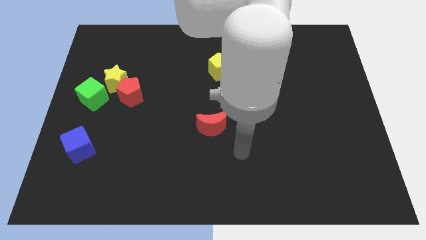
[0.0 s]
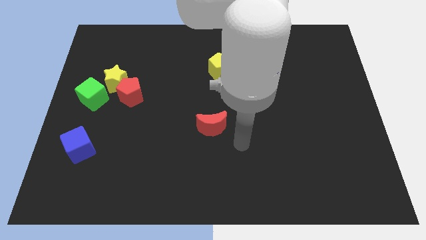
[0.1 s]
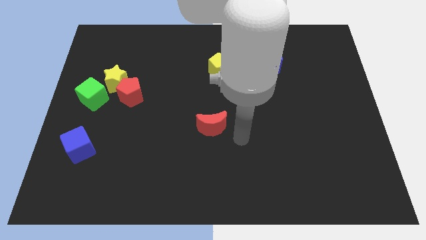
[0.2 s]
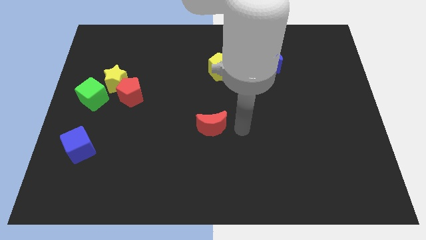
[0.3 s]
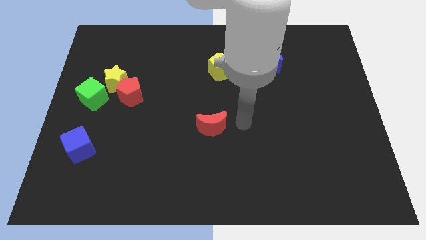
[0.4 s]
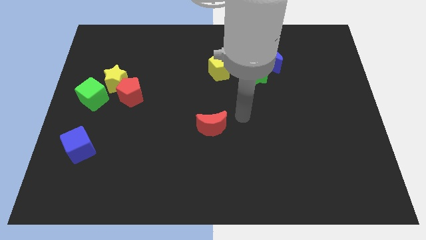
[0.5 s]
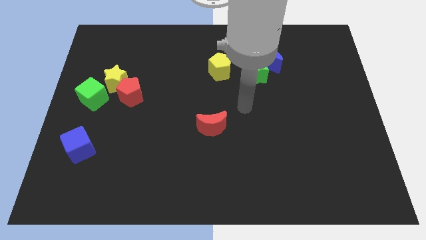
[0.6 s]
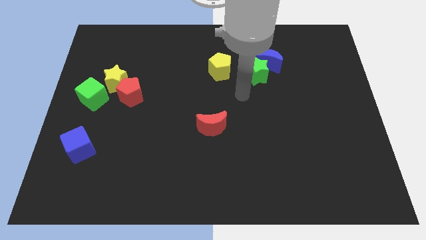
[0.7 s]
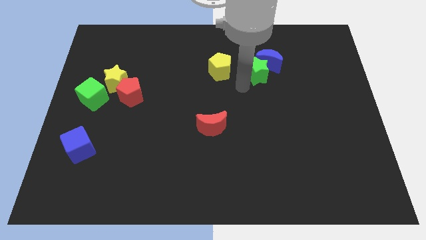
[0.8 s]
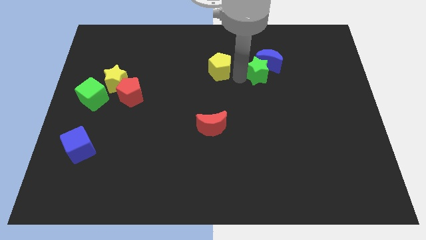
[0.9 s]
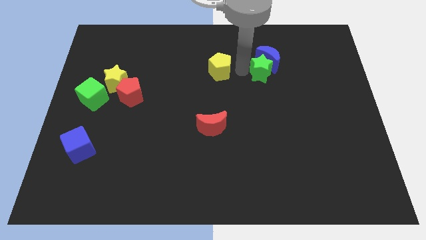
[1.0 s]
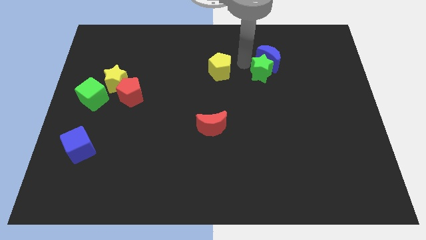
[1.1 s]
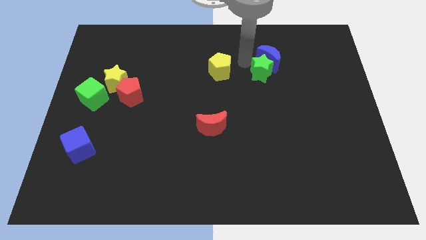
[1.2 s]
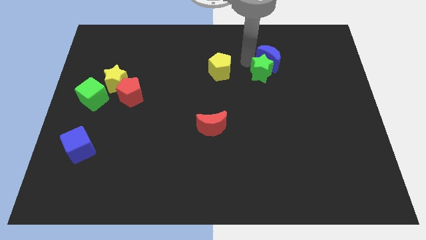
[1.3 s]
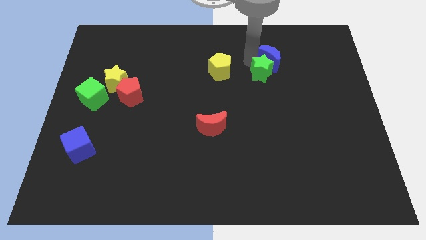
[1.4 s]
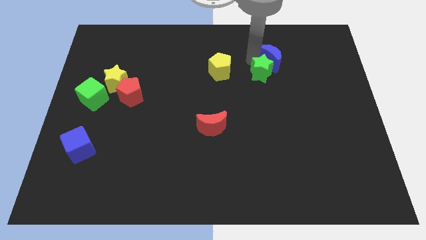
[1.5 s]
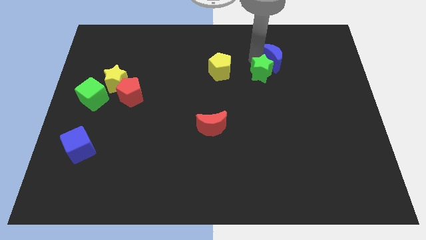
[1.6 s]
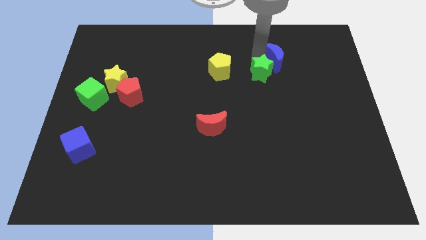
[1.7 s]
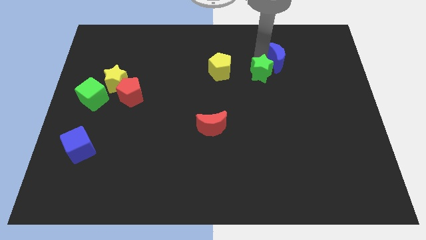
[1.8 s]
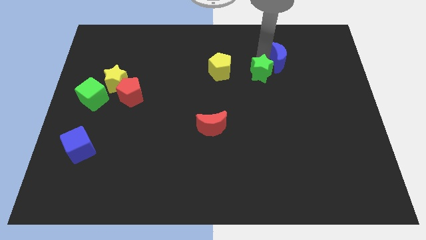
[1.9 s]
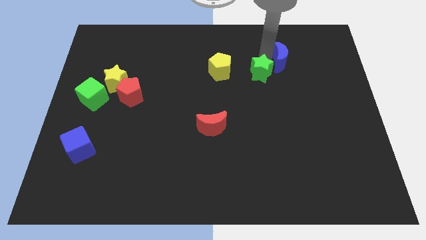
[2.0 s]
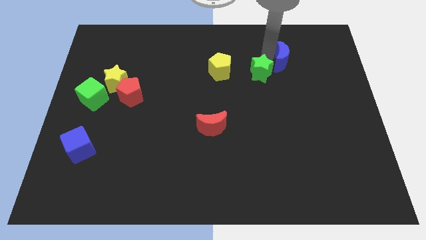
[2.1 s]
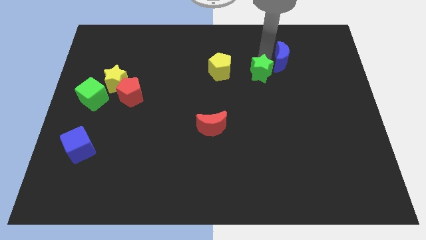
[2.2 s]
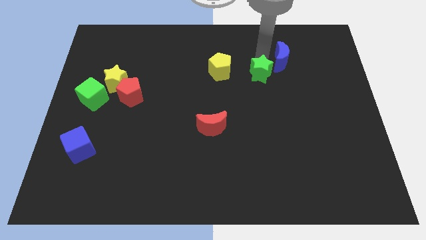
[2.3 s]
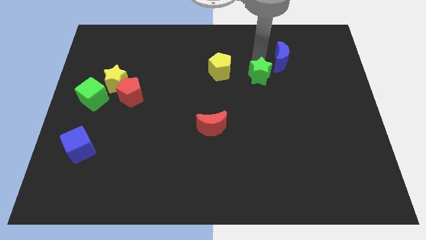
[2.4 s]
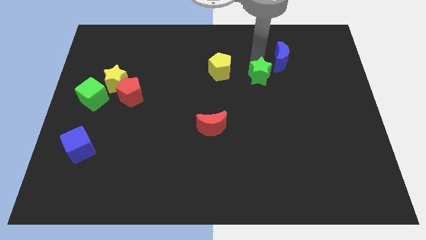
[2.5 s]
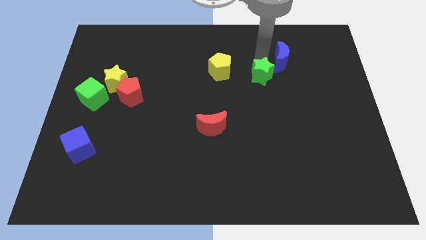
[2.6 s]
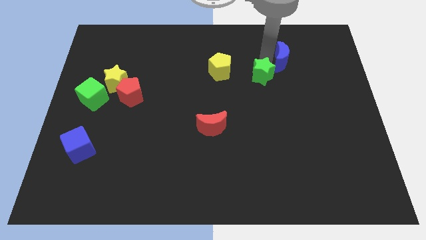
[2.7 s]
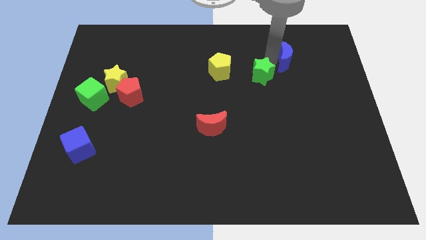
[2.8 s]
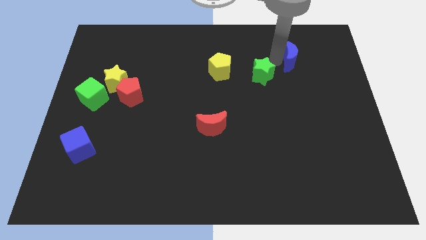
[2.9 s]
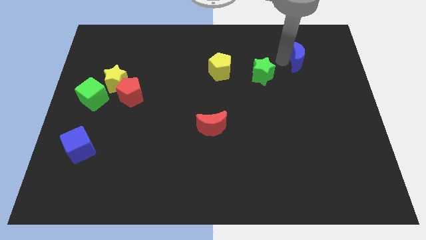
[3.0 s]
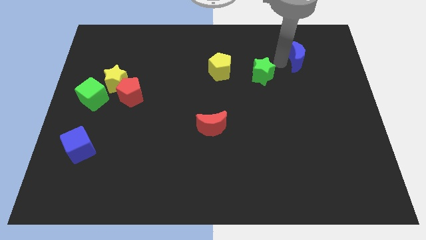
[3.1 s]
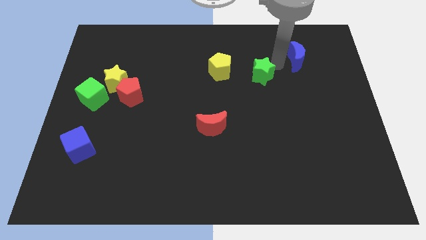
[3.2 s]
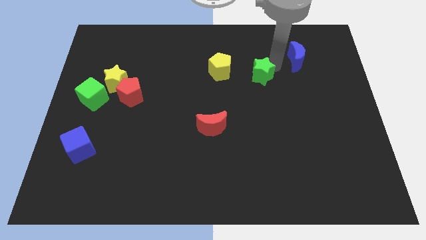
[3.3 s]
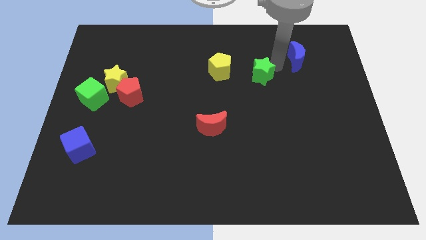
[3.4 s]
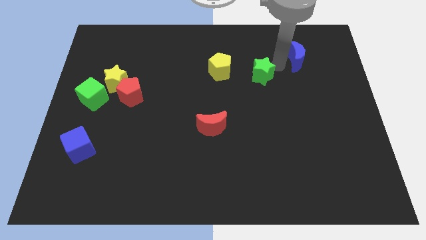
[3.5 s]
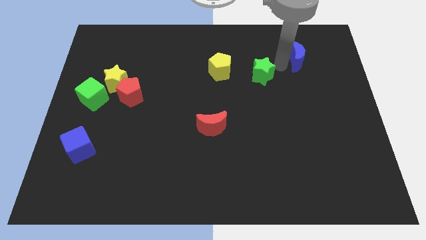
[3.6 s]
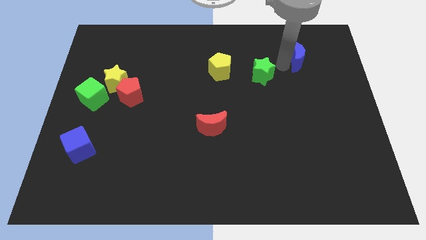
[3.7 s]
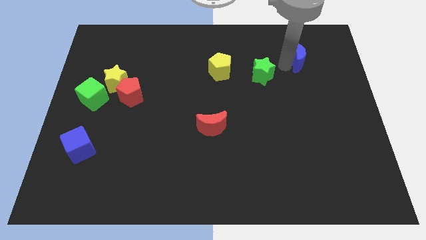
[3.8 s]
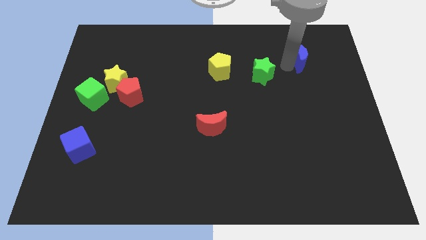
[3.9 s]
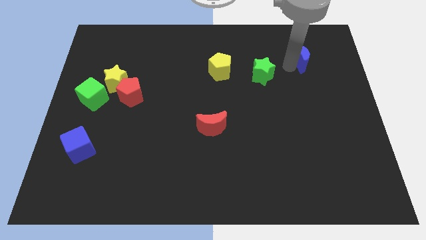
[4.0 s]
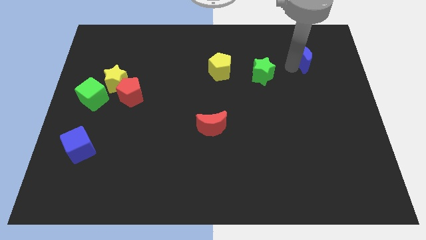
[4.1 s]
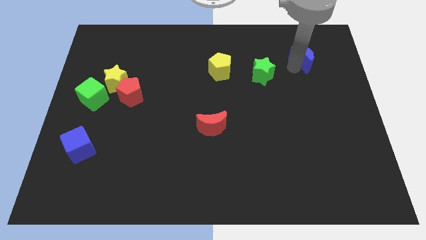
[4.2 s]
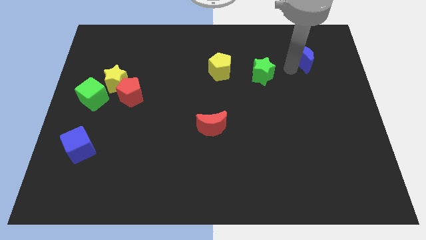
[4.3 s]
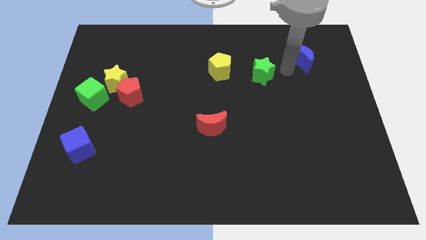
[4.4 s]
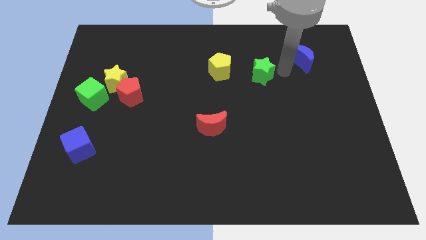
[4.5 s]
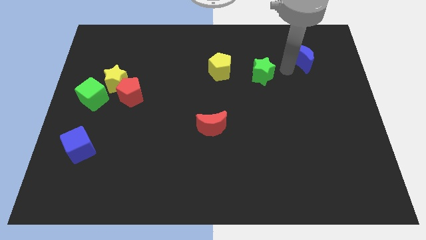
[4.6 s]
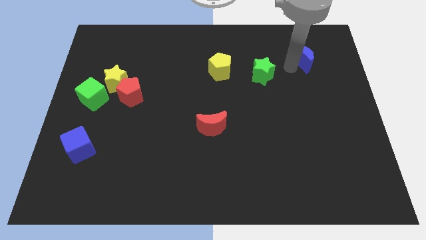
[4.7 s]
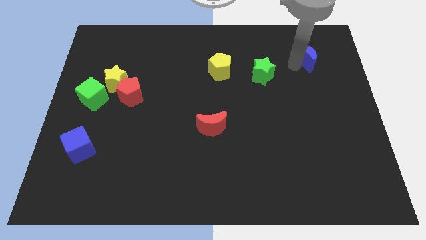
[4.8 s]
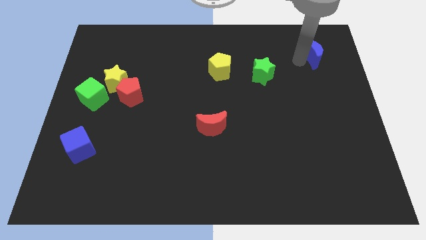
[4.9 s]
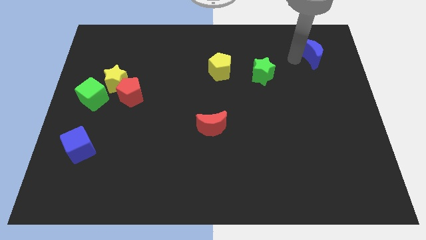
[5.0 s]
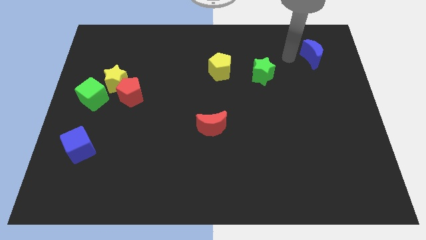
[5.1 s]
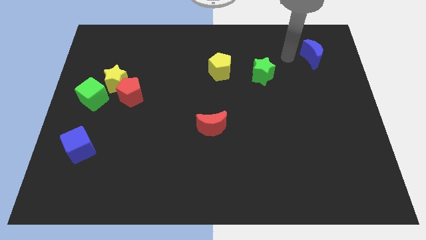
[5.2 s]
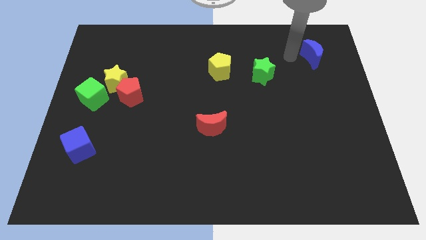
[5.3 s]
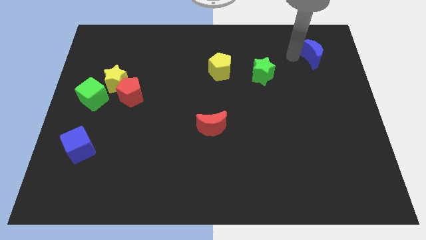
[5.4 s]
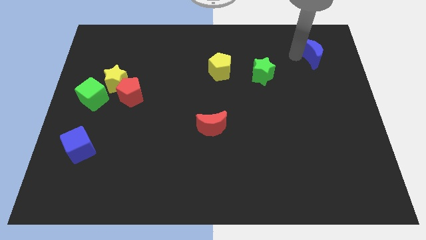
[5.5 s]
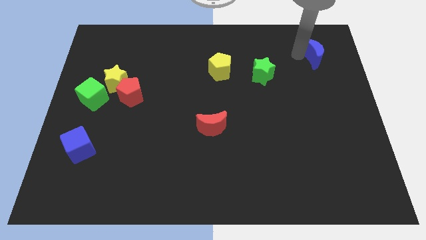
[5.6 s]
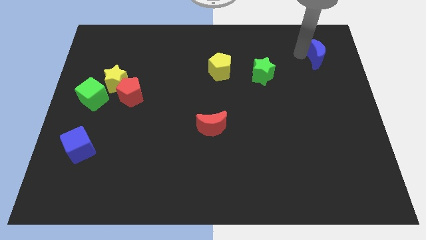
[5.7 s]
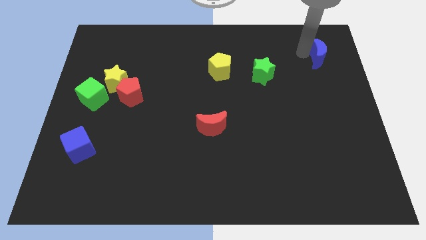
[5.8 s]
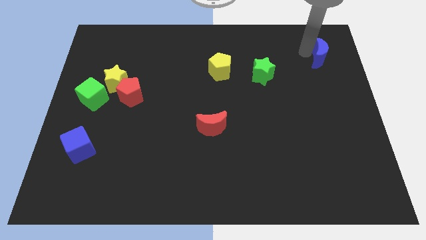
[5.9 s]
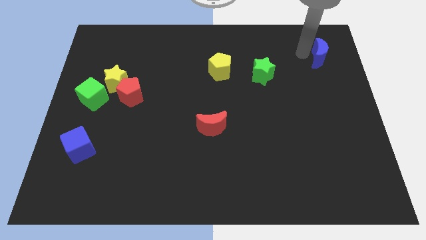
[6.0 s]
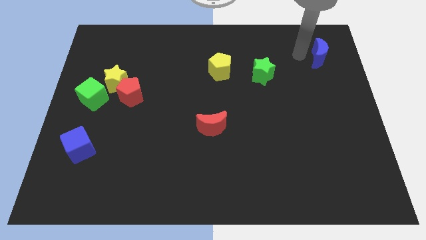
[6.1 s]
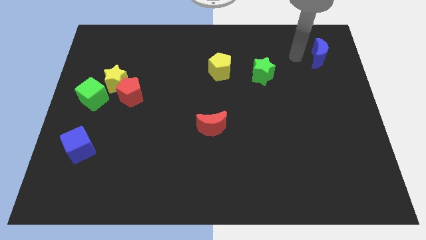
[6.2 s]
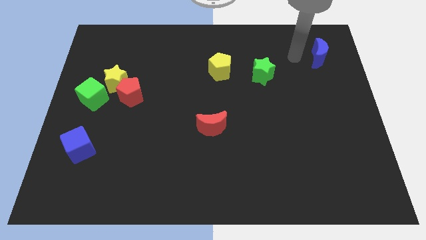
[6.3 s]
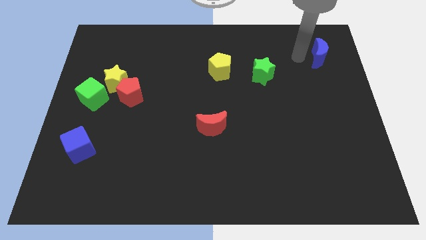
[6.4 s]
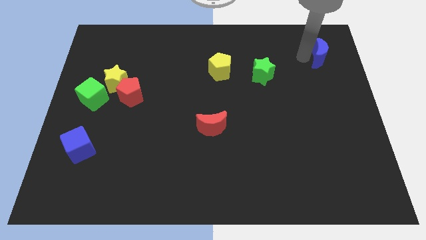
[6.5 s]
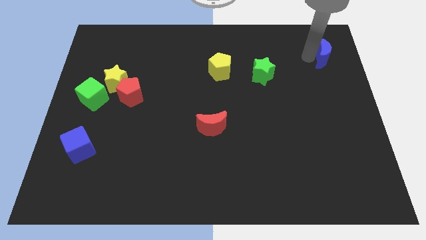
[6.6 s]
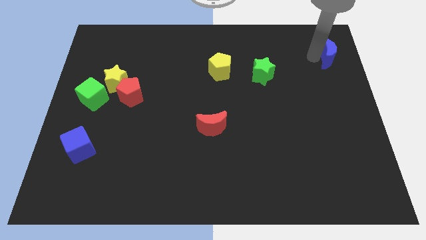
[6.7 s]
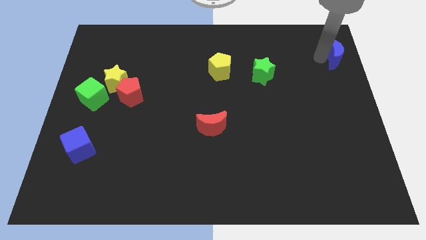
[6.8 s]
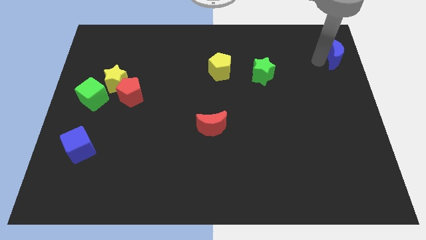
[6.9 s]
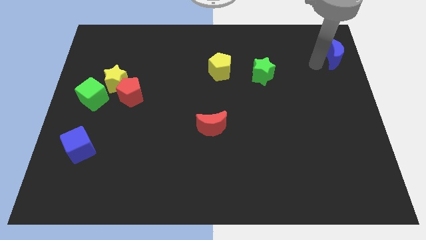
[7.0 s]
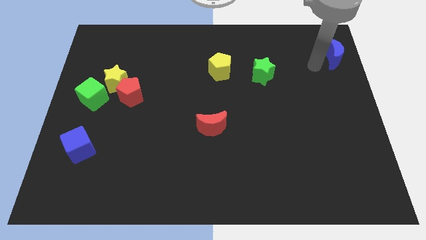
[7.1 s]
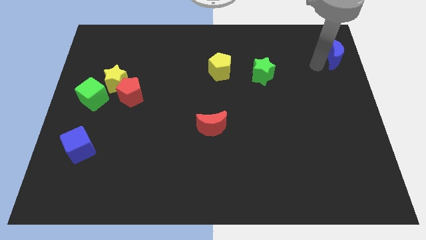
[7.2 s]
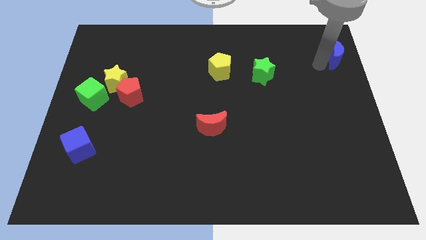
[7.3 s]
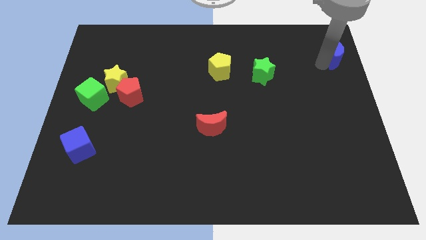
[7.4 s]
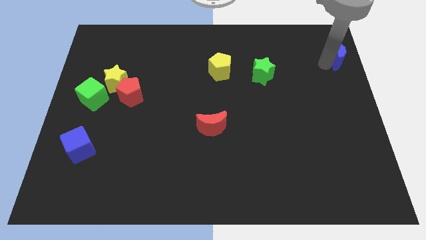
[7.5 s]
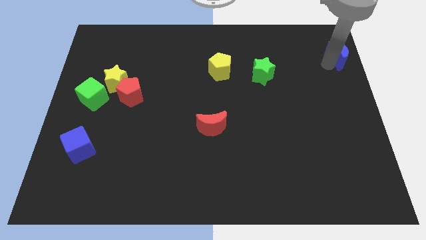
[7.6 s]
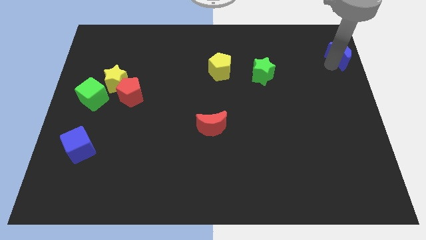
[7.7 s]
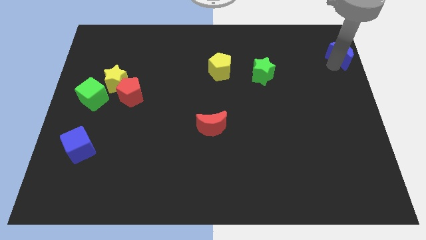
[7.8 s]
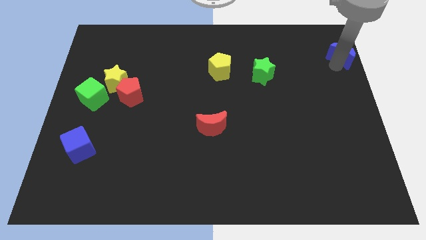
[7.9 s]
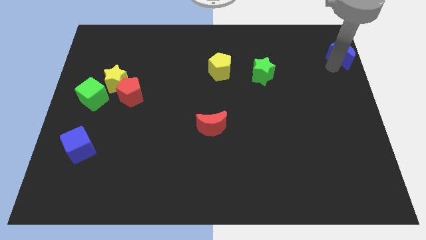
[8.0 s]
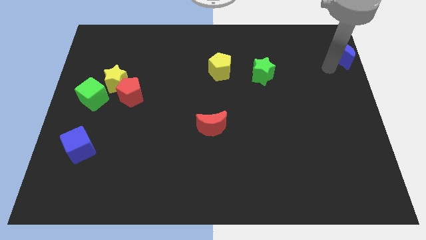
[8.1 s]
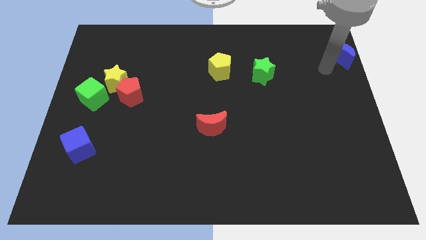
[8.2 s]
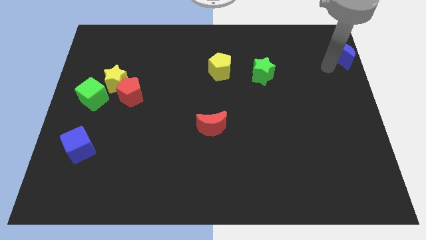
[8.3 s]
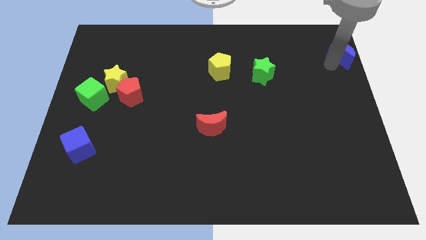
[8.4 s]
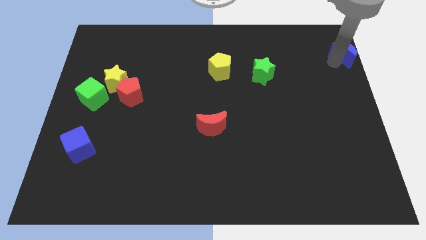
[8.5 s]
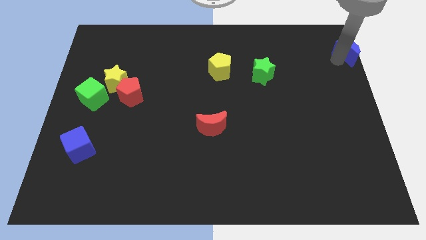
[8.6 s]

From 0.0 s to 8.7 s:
push the blue moon to the top right corner
